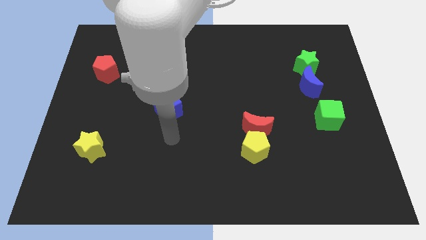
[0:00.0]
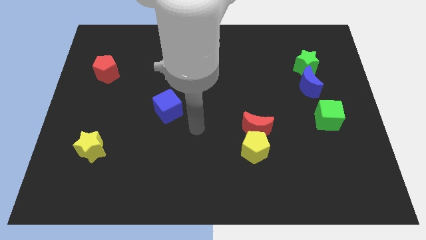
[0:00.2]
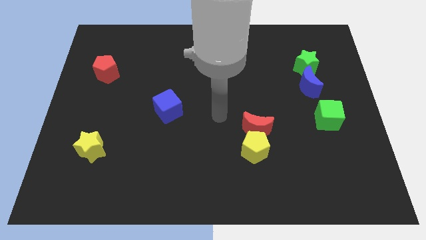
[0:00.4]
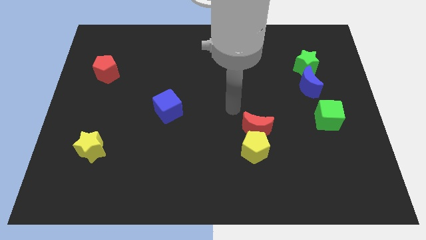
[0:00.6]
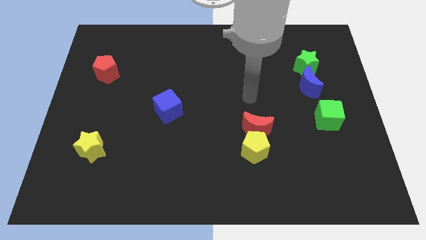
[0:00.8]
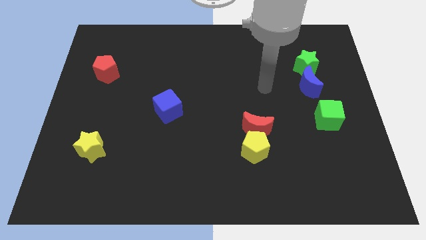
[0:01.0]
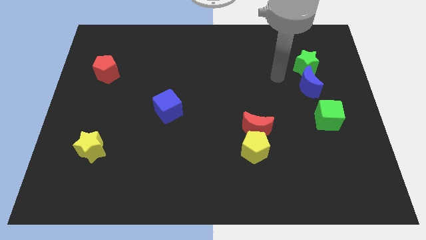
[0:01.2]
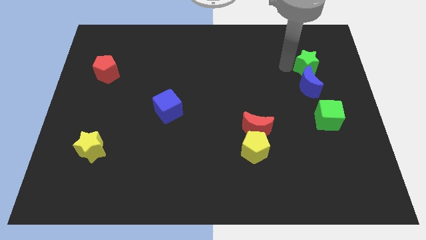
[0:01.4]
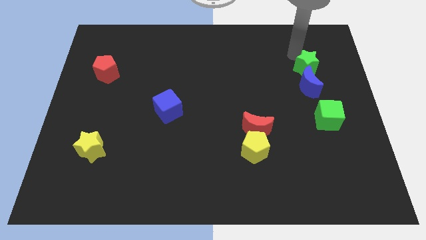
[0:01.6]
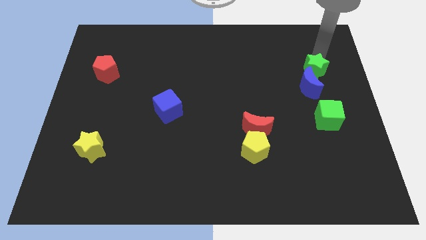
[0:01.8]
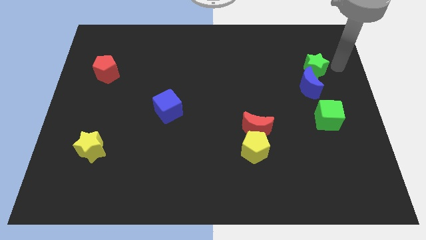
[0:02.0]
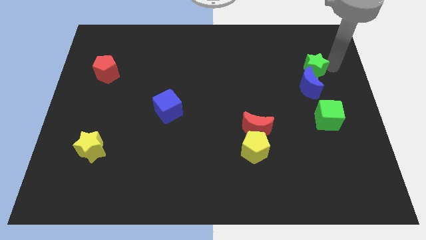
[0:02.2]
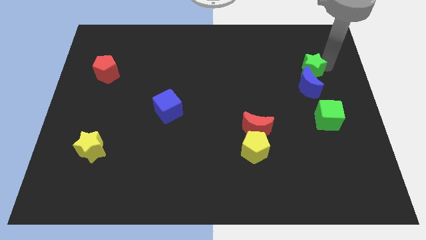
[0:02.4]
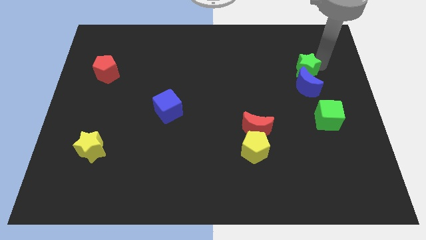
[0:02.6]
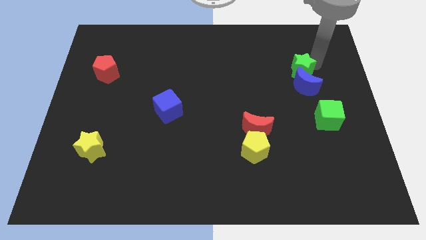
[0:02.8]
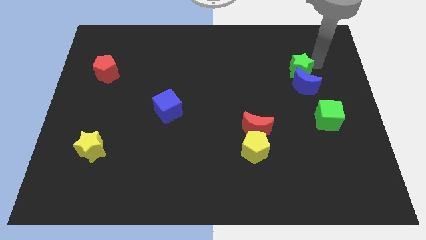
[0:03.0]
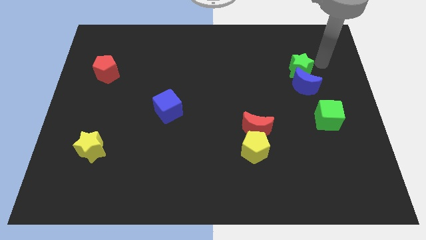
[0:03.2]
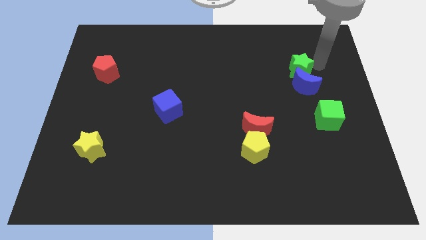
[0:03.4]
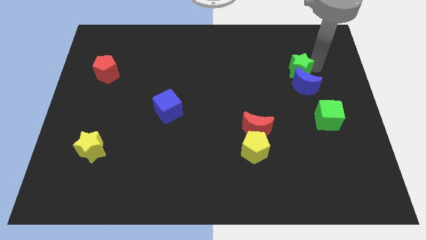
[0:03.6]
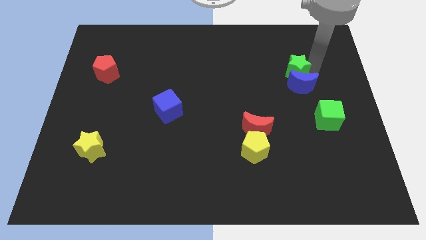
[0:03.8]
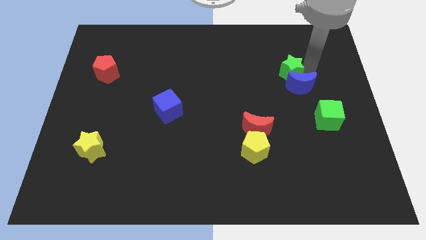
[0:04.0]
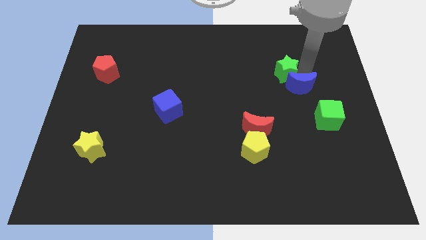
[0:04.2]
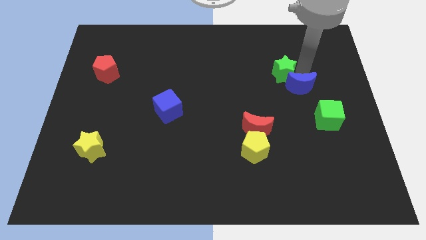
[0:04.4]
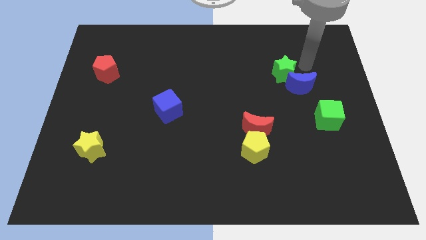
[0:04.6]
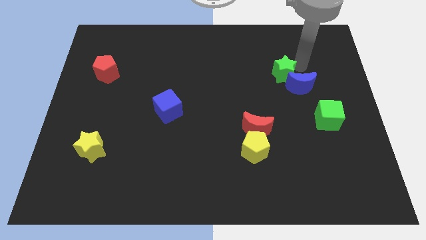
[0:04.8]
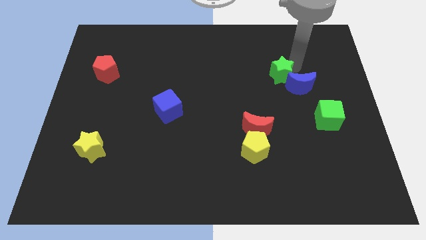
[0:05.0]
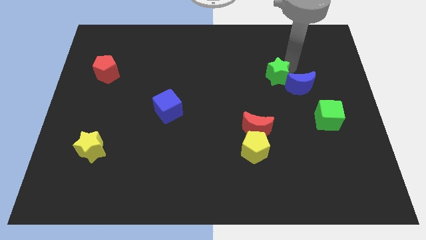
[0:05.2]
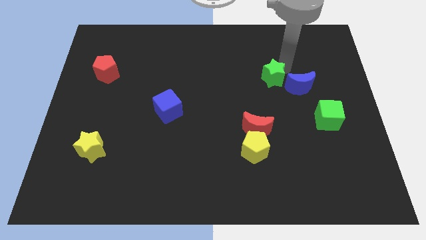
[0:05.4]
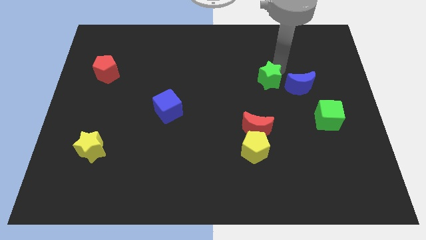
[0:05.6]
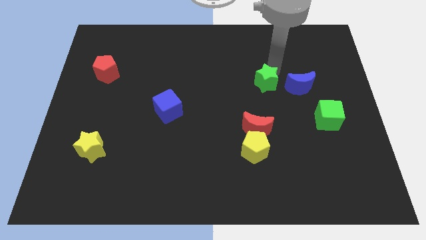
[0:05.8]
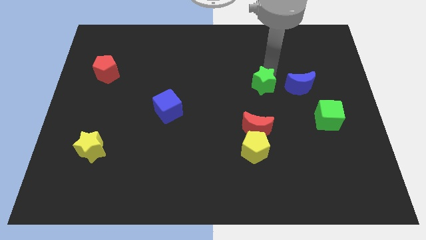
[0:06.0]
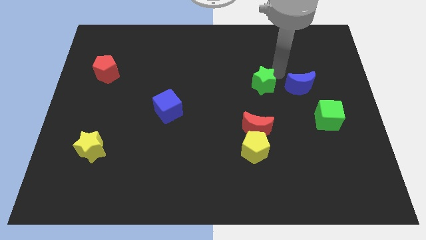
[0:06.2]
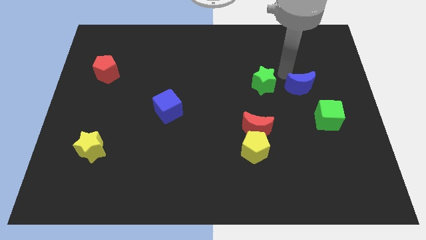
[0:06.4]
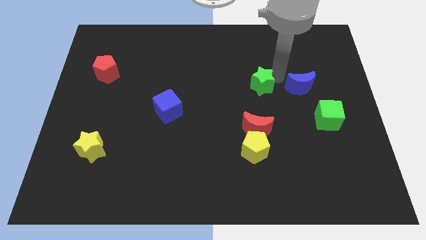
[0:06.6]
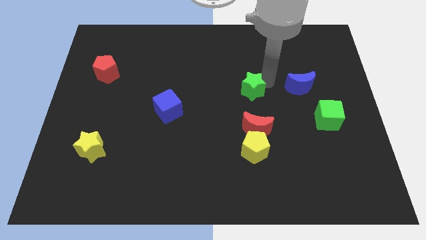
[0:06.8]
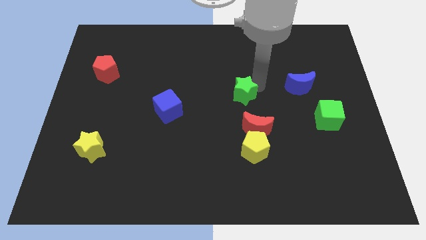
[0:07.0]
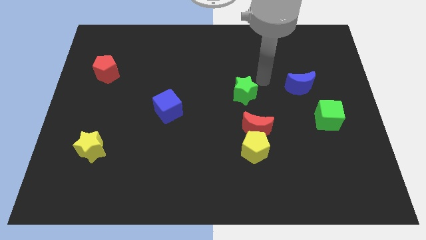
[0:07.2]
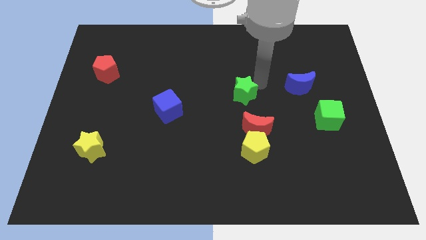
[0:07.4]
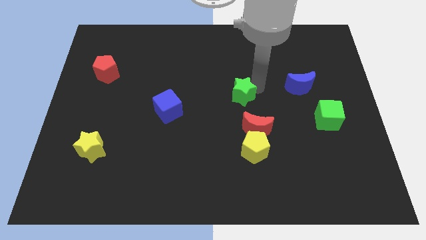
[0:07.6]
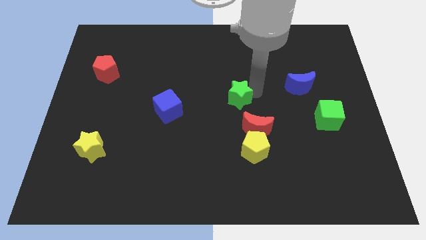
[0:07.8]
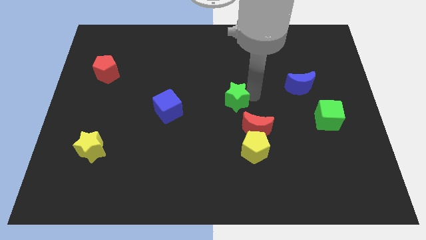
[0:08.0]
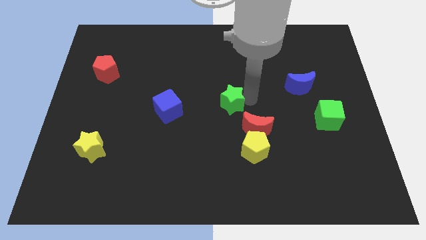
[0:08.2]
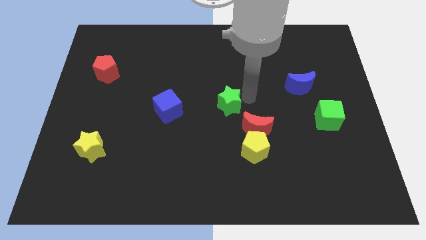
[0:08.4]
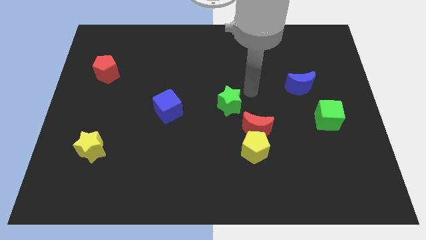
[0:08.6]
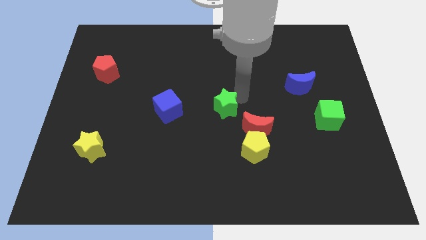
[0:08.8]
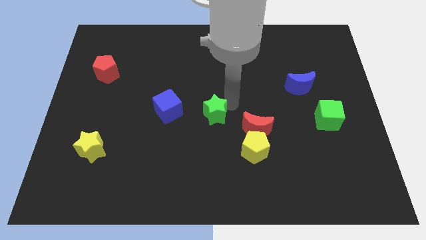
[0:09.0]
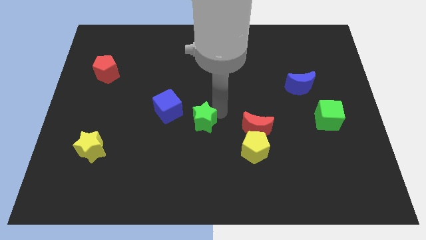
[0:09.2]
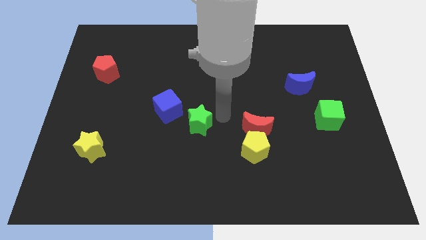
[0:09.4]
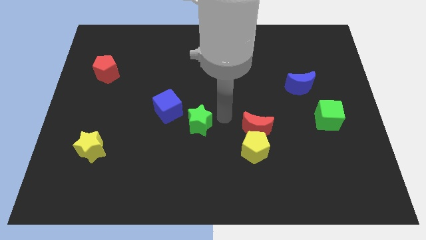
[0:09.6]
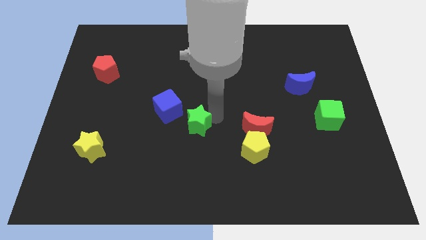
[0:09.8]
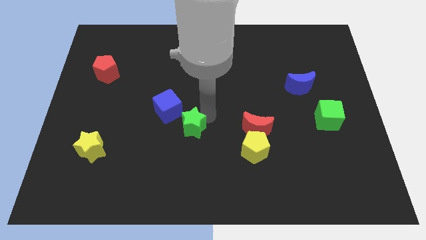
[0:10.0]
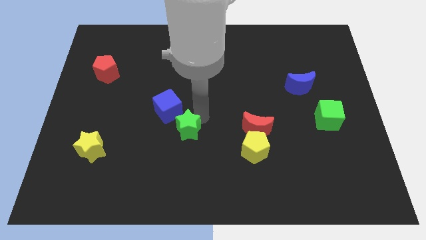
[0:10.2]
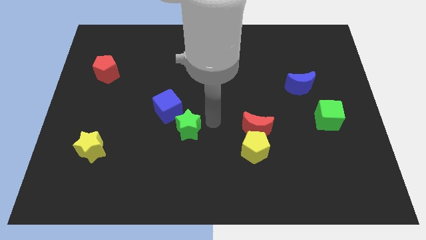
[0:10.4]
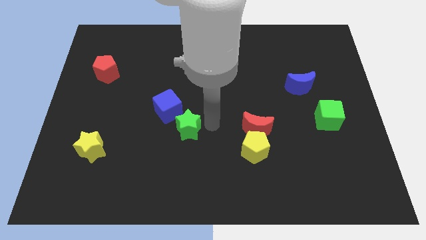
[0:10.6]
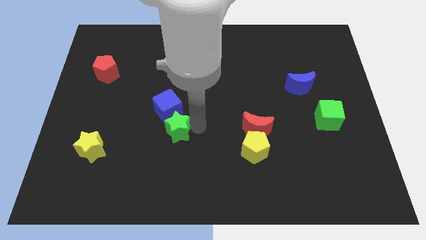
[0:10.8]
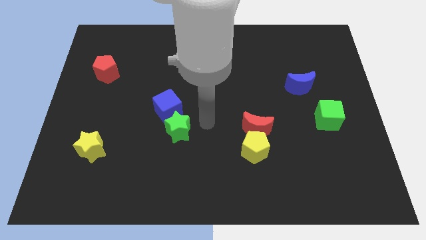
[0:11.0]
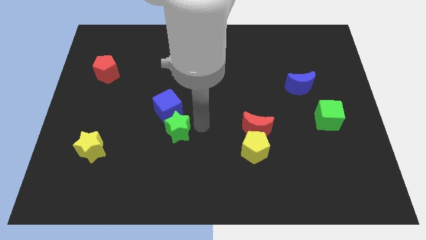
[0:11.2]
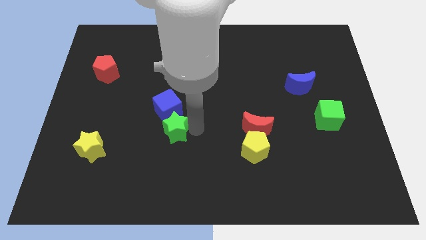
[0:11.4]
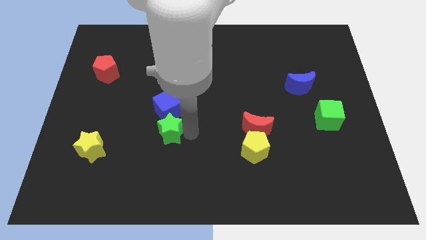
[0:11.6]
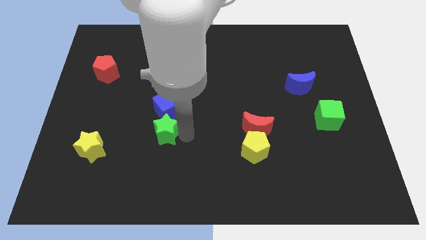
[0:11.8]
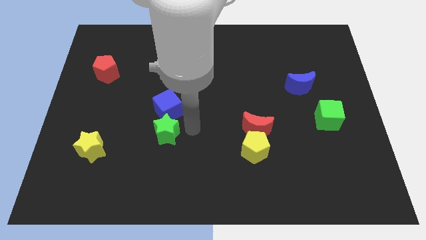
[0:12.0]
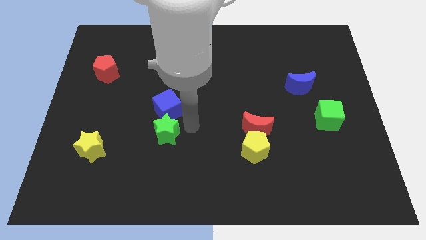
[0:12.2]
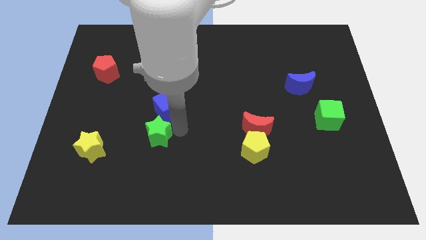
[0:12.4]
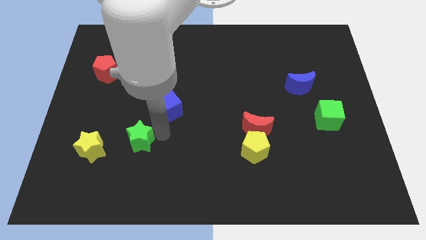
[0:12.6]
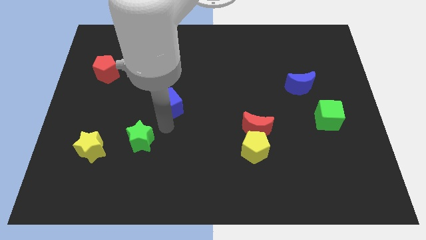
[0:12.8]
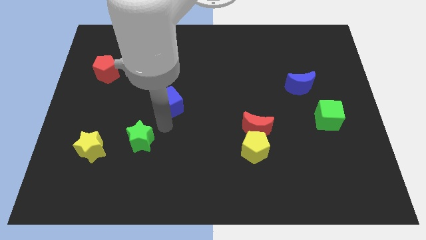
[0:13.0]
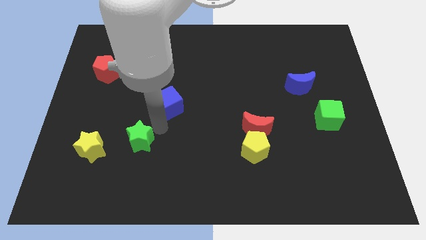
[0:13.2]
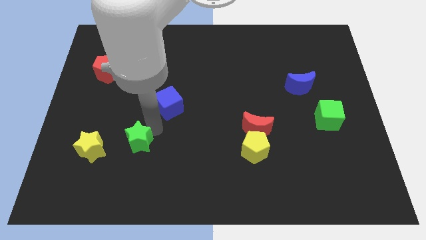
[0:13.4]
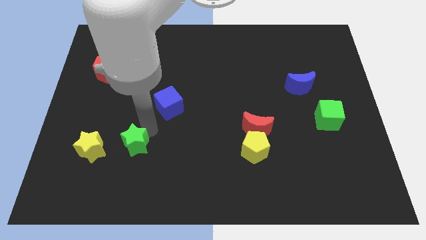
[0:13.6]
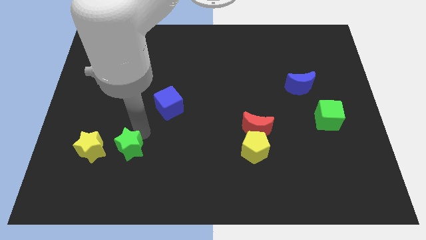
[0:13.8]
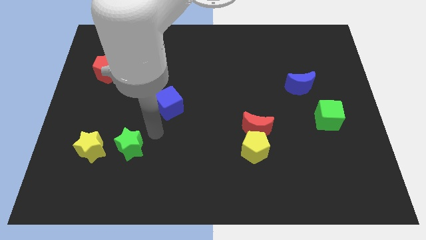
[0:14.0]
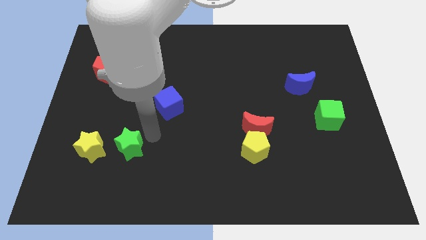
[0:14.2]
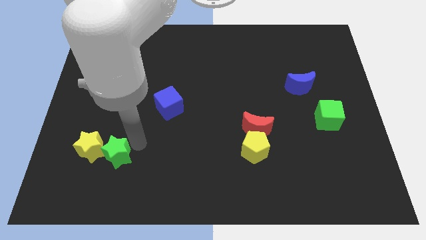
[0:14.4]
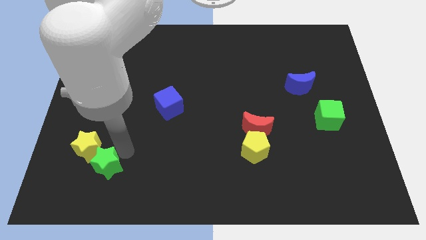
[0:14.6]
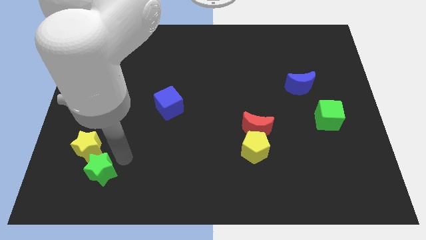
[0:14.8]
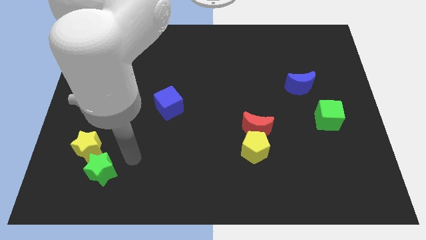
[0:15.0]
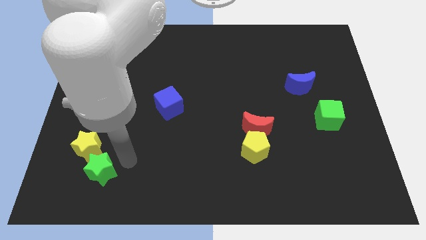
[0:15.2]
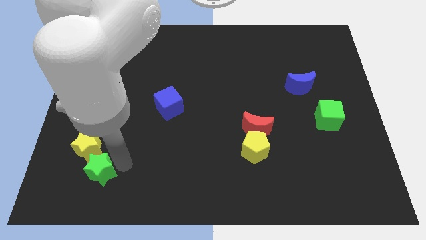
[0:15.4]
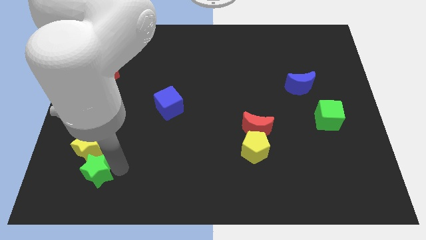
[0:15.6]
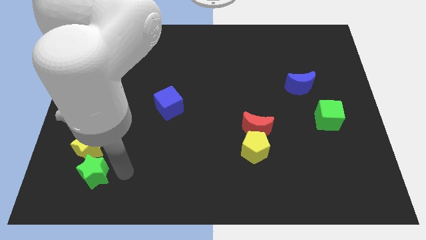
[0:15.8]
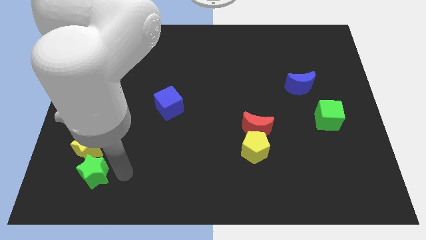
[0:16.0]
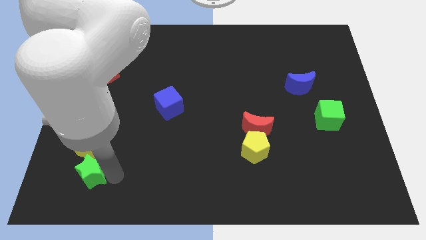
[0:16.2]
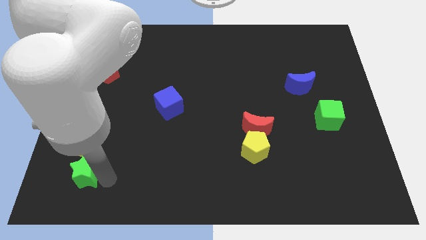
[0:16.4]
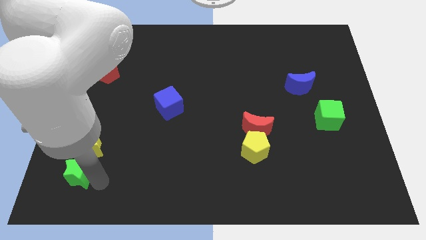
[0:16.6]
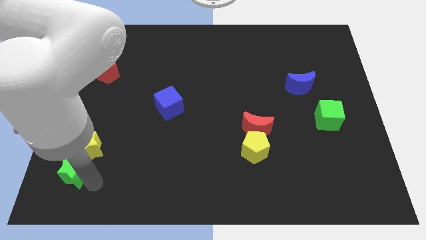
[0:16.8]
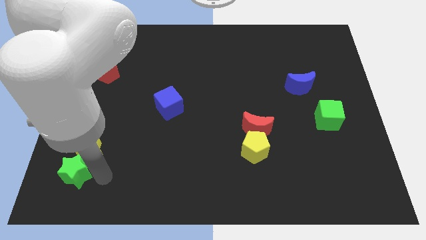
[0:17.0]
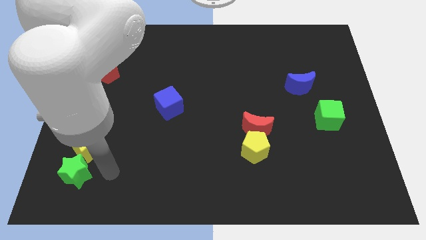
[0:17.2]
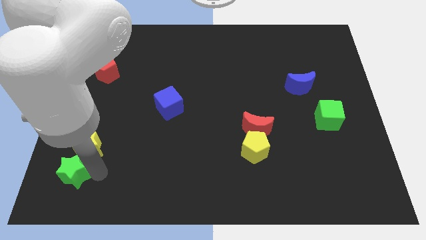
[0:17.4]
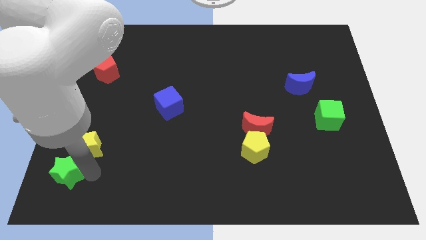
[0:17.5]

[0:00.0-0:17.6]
move the green star to the bottom left corner
